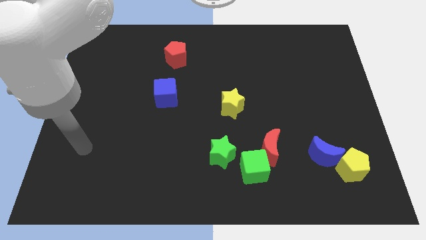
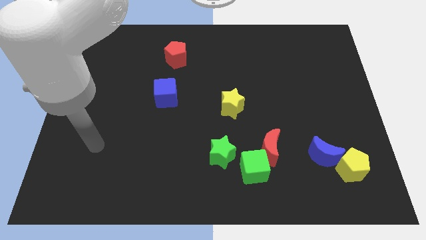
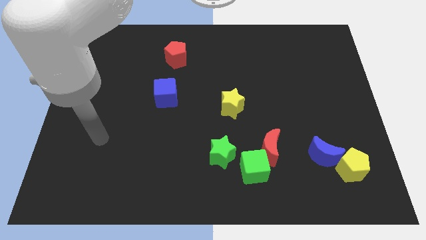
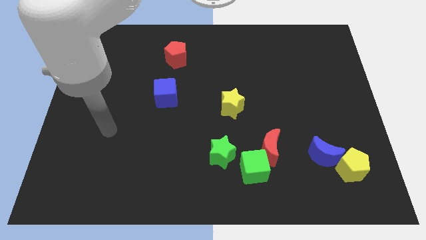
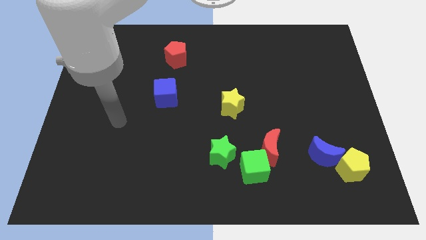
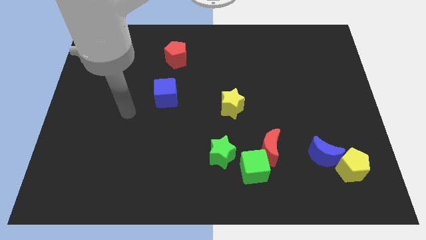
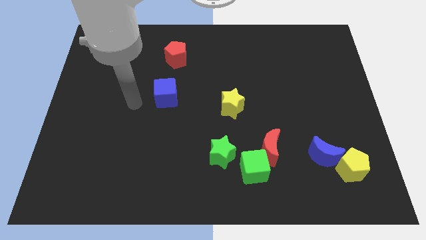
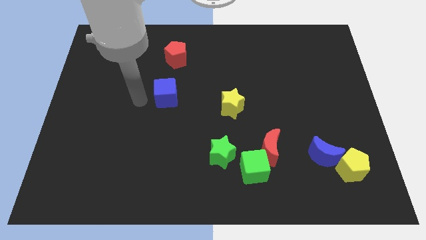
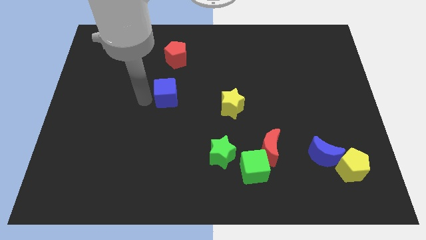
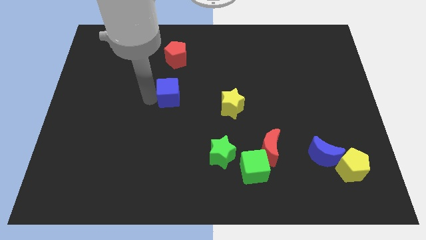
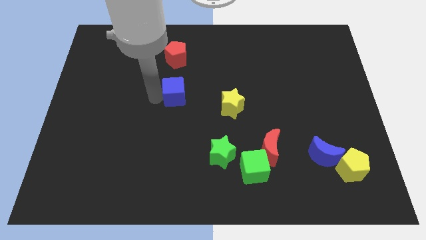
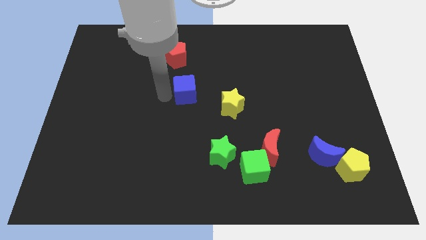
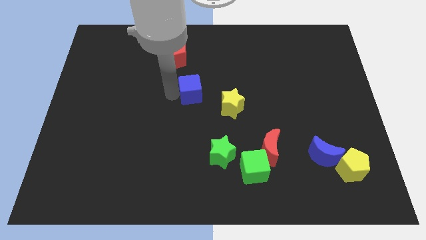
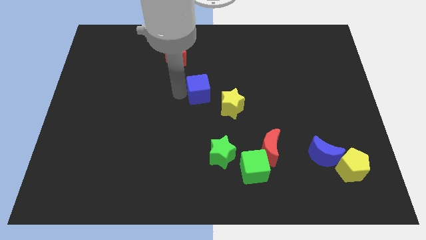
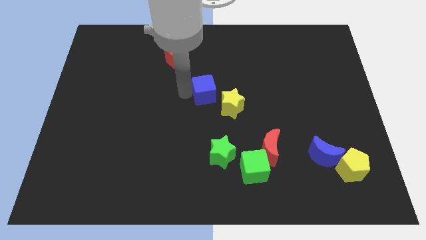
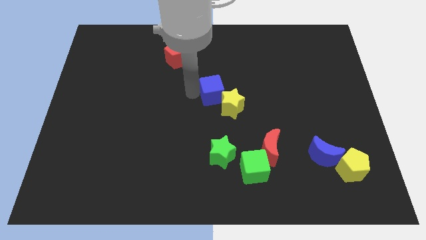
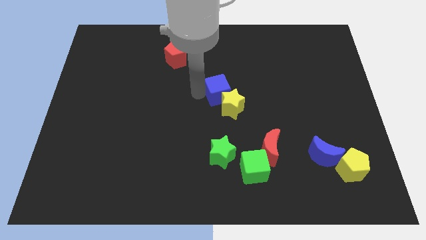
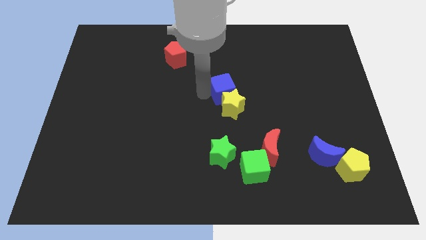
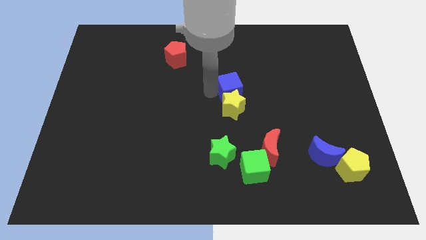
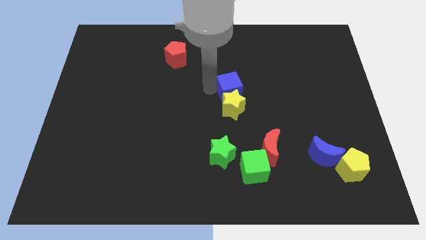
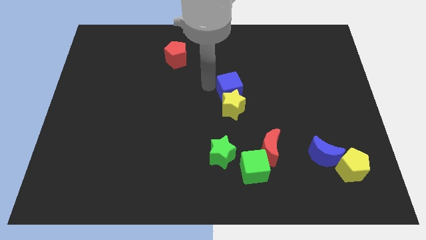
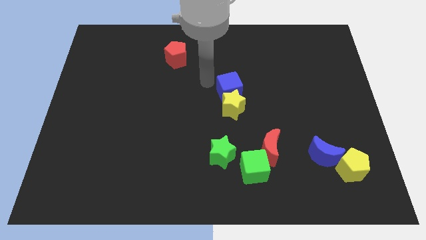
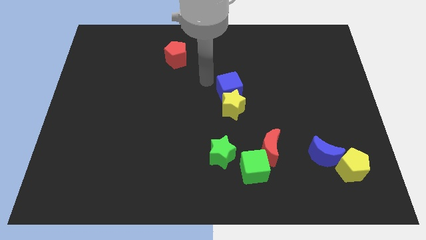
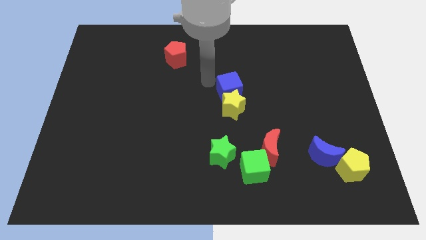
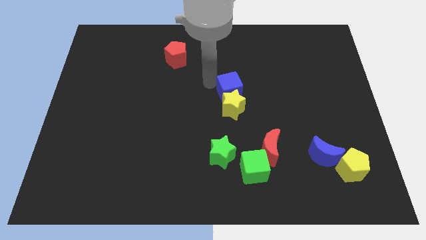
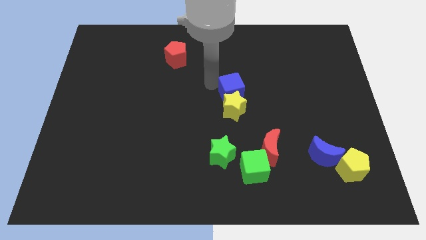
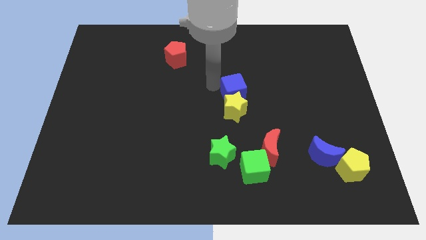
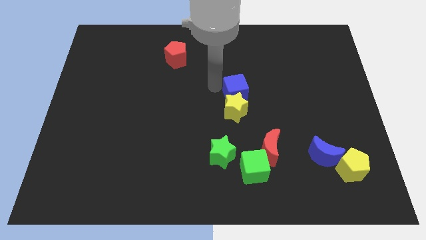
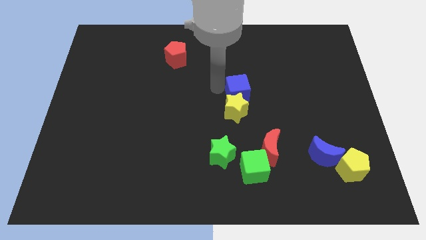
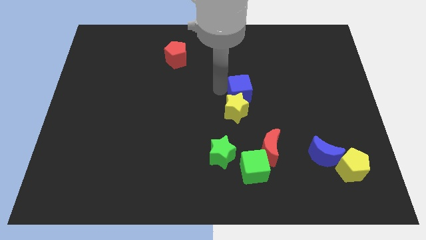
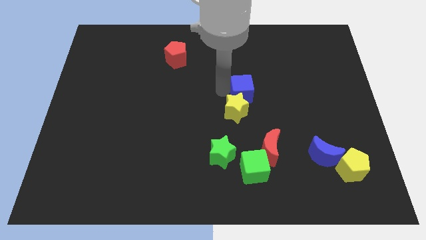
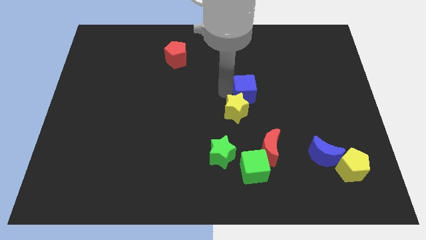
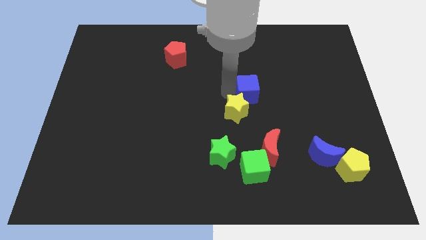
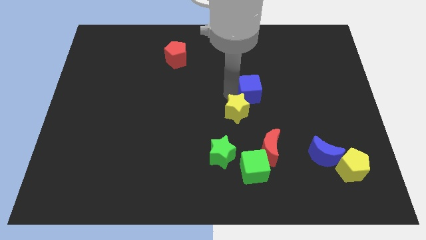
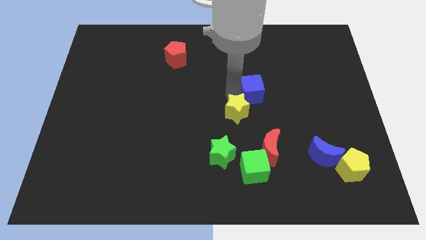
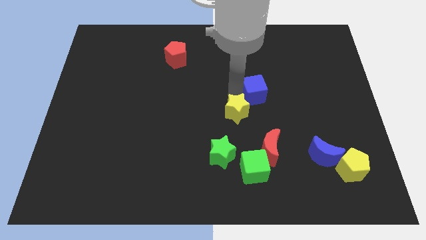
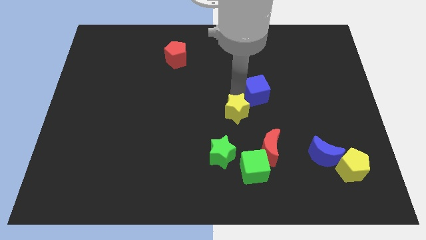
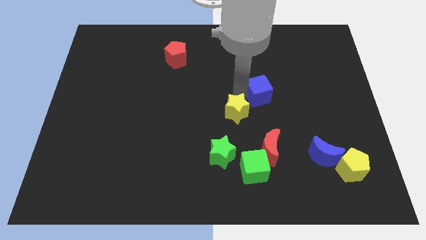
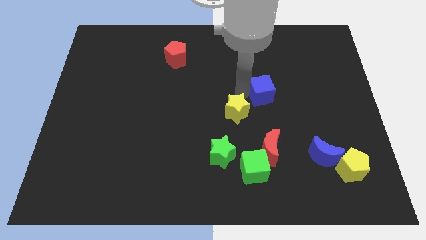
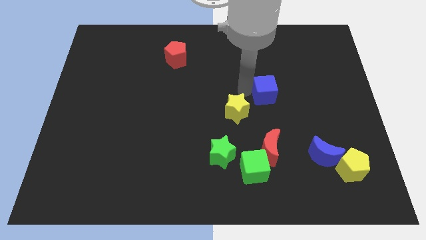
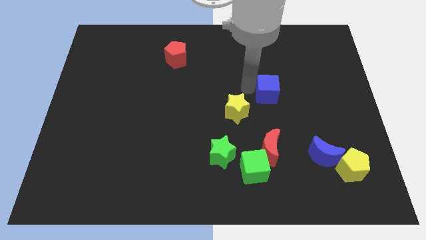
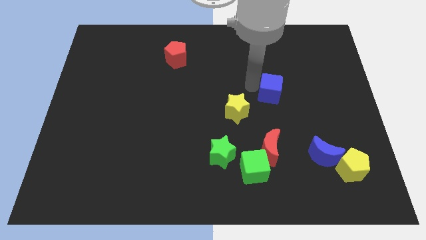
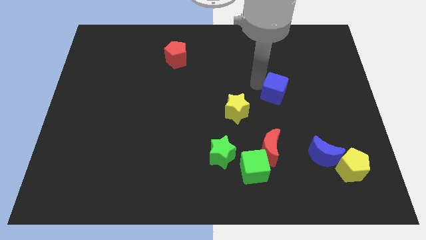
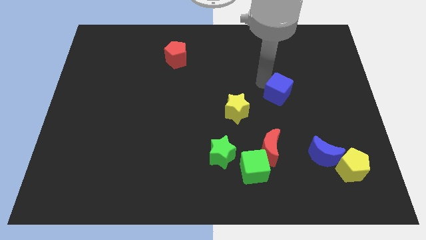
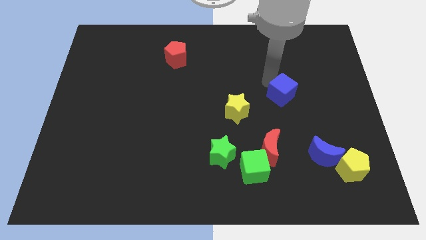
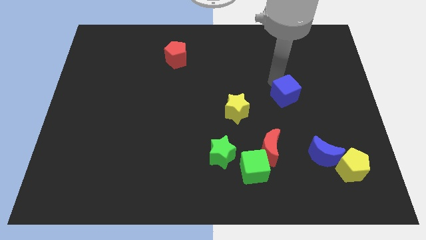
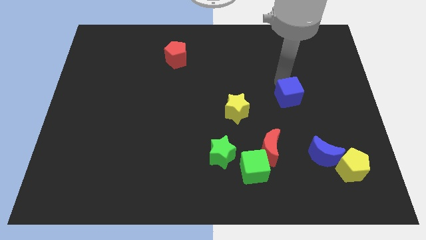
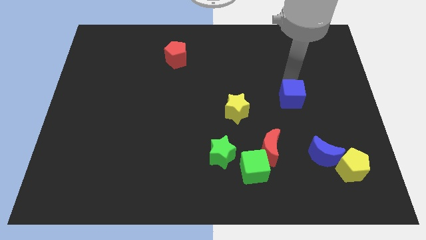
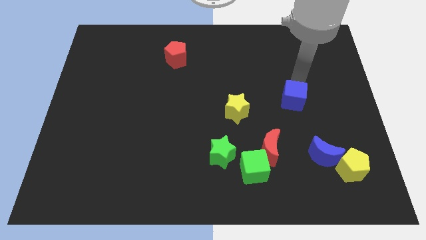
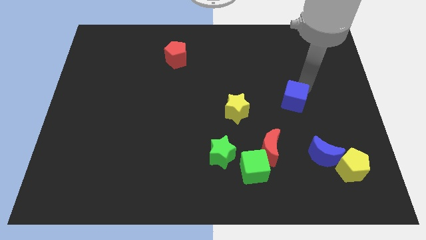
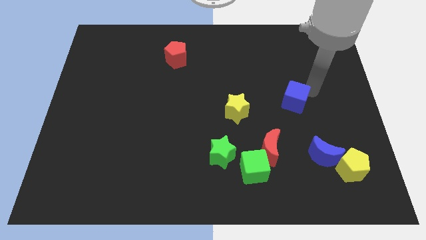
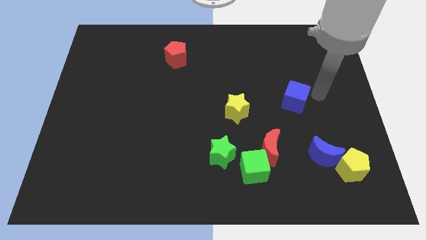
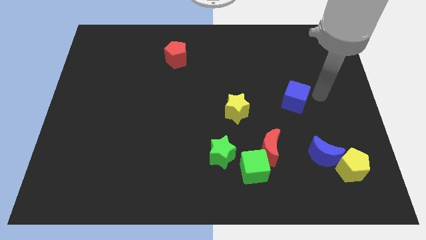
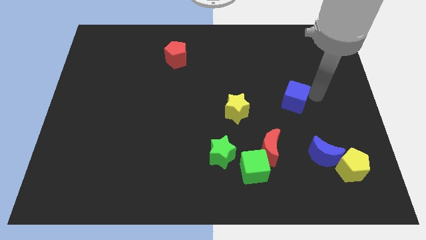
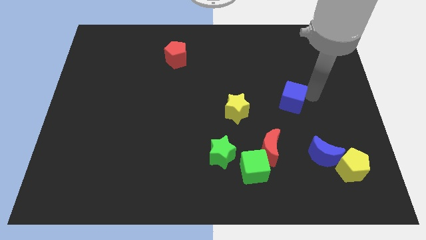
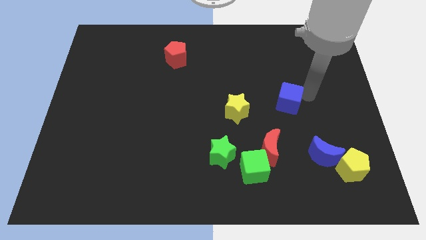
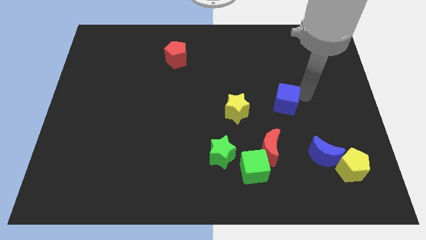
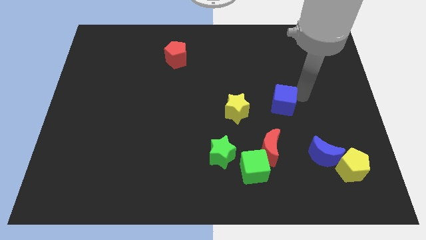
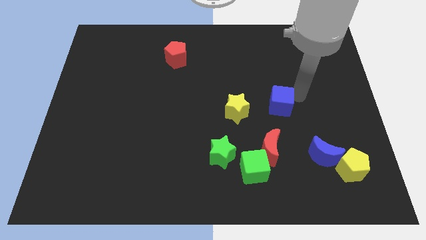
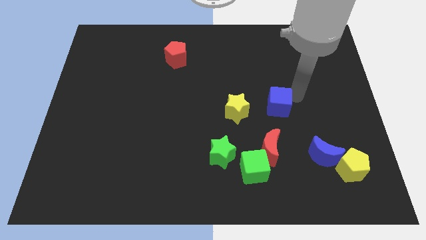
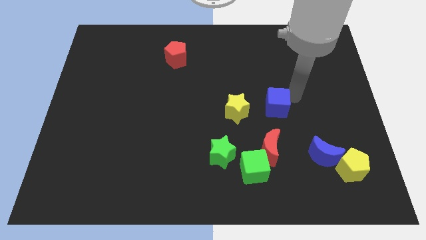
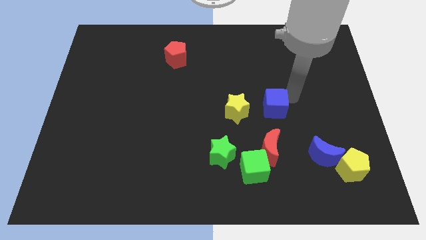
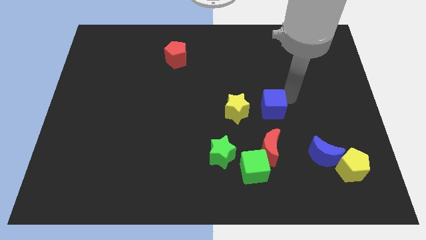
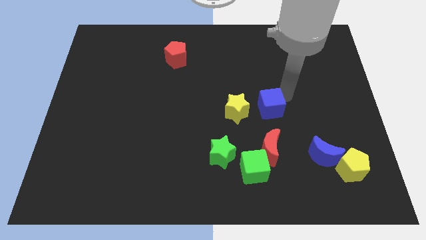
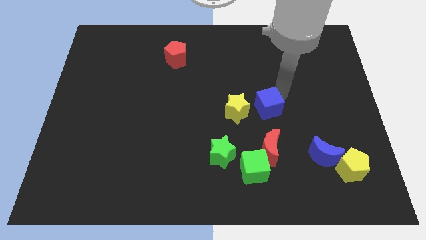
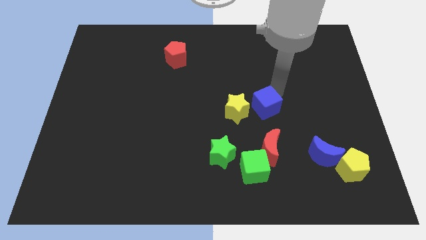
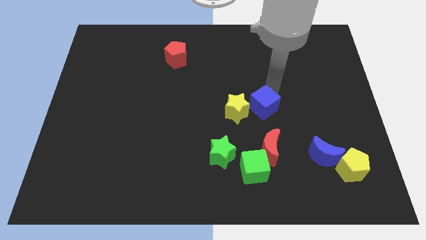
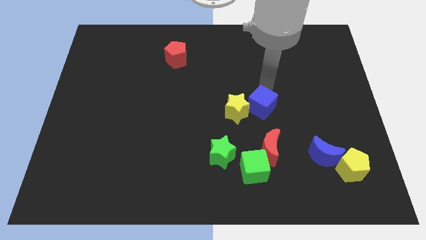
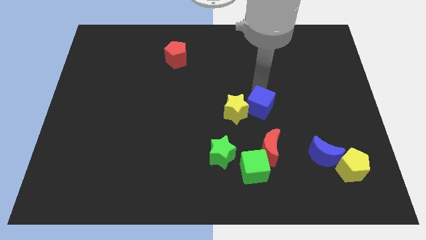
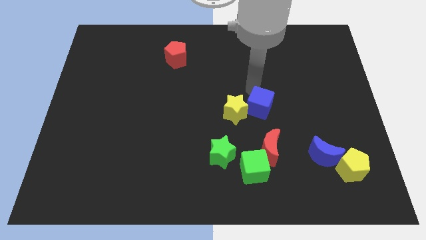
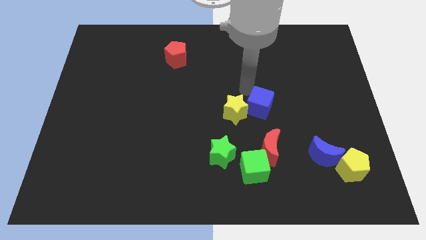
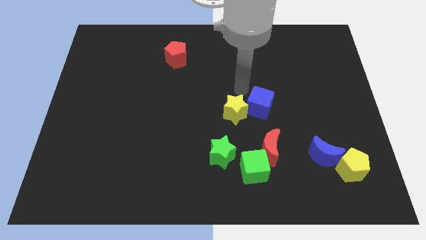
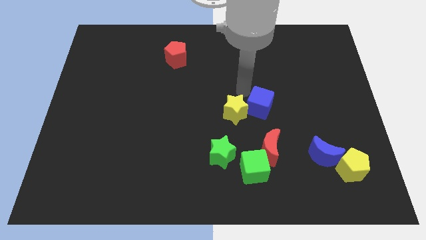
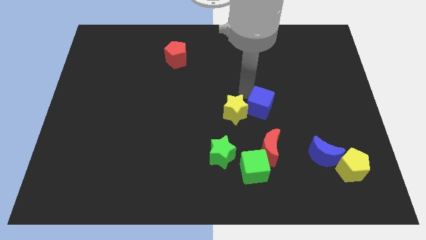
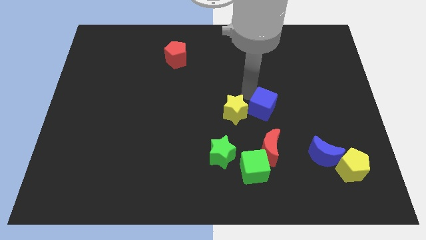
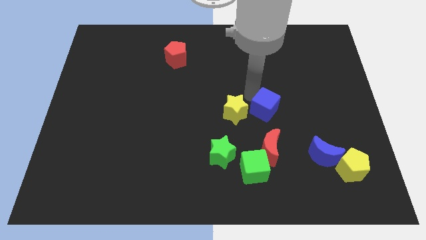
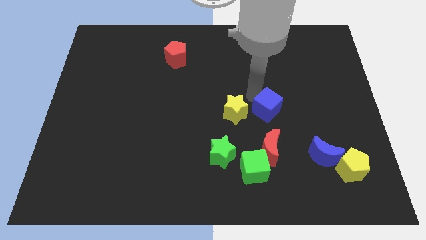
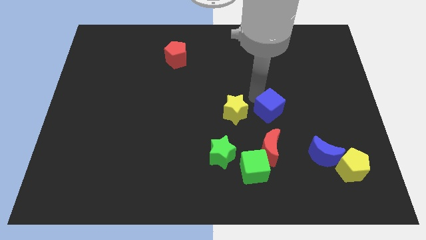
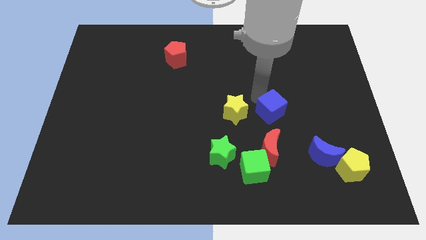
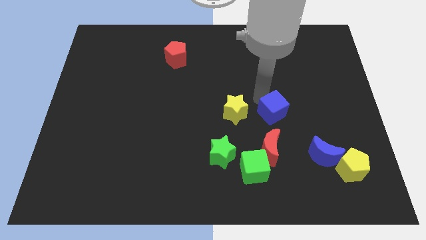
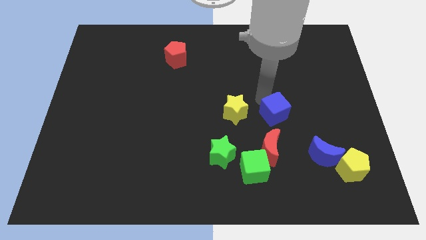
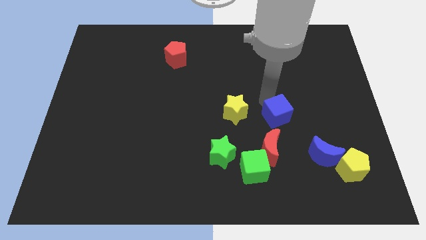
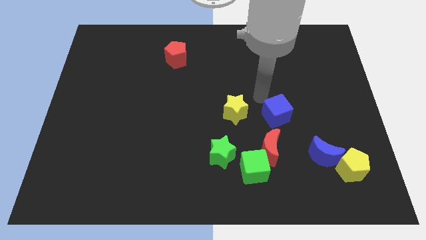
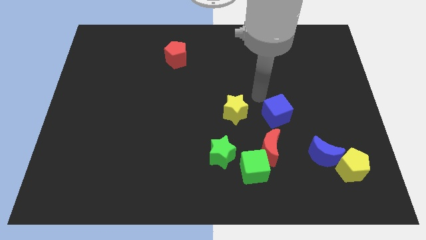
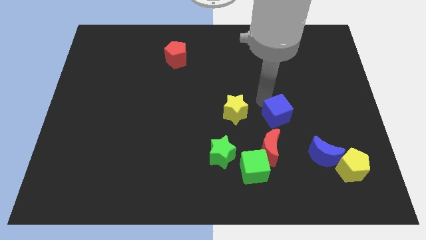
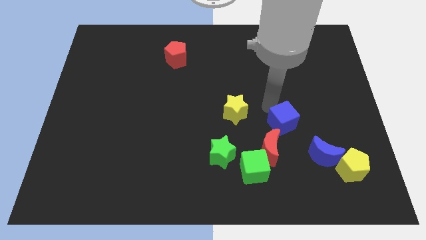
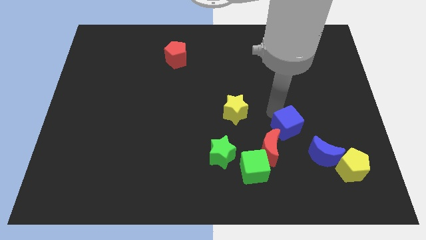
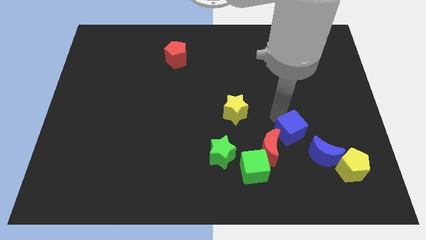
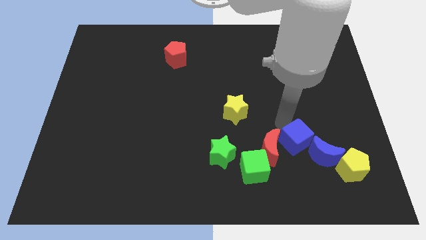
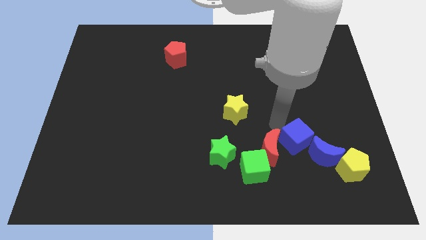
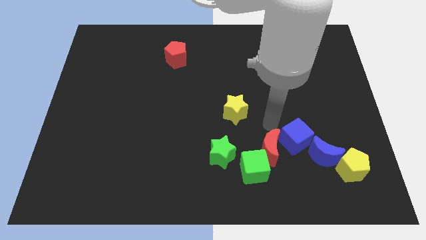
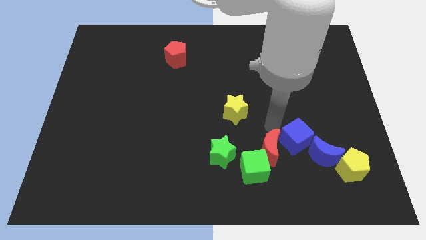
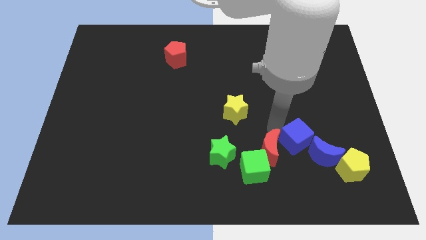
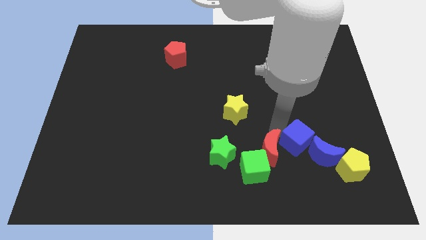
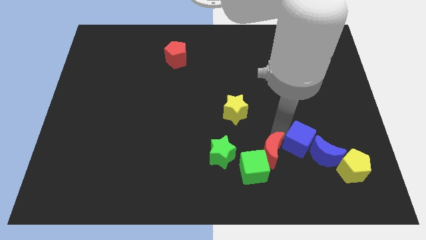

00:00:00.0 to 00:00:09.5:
move the blue cube next to the blue moon
